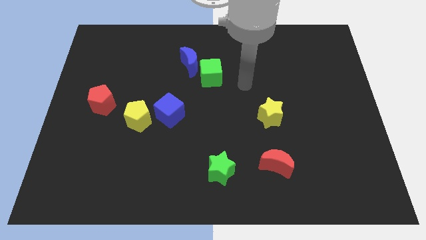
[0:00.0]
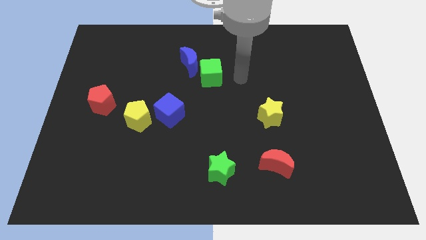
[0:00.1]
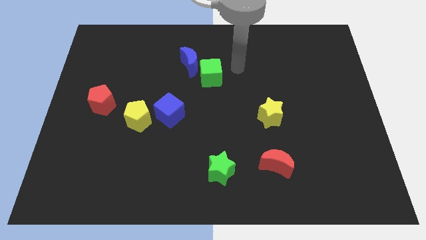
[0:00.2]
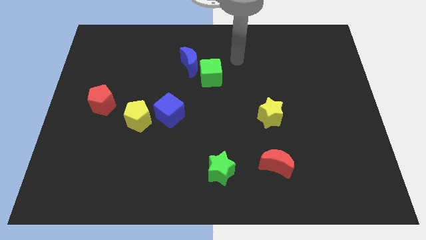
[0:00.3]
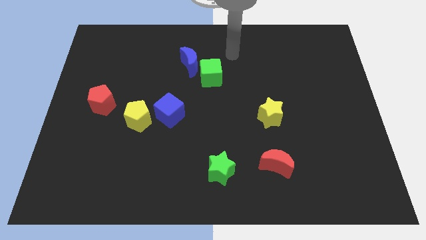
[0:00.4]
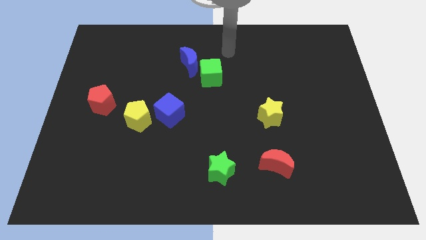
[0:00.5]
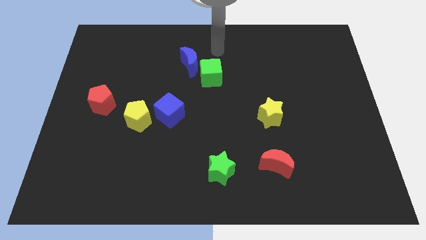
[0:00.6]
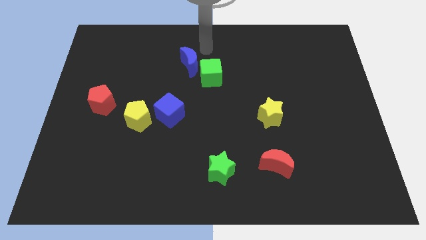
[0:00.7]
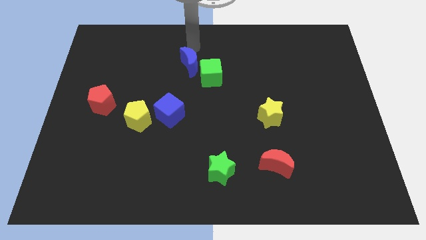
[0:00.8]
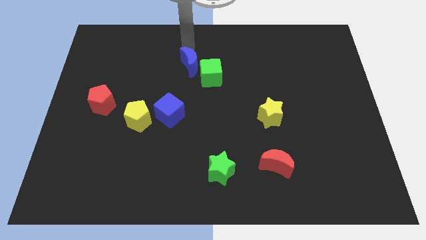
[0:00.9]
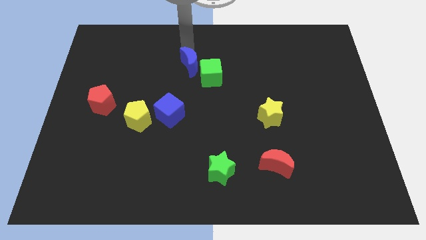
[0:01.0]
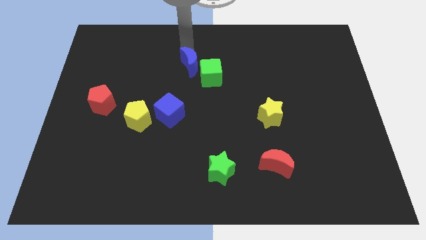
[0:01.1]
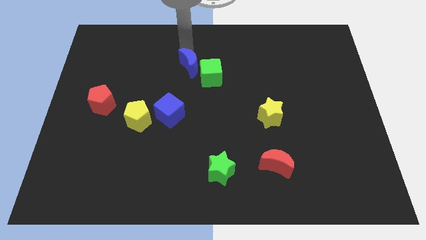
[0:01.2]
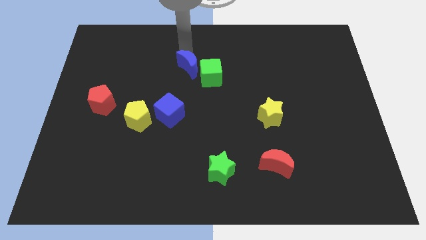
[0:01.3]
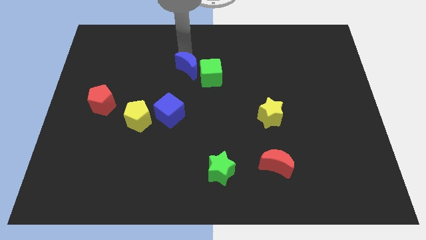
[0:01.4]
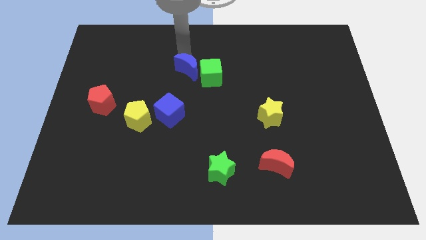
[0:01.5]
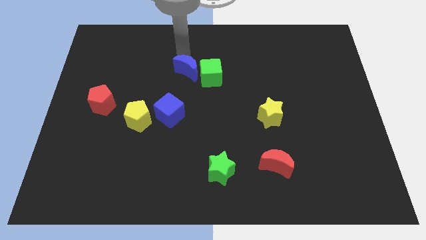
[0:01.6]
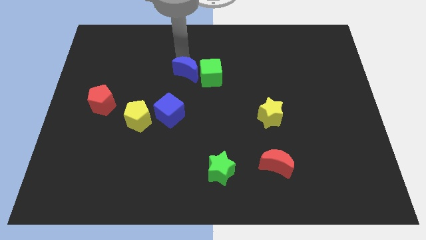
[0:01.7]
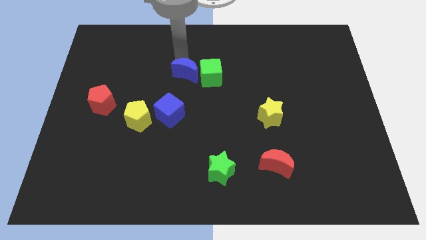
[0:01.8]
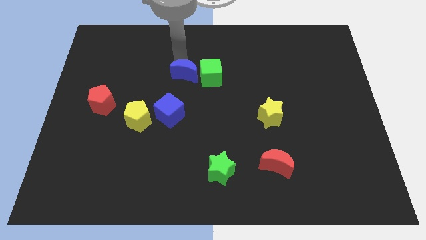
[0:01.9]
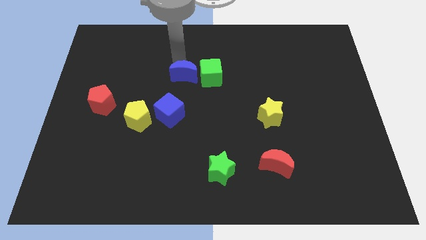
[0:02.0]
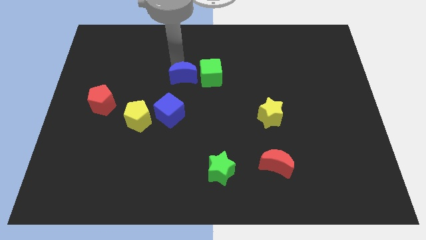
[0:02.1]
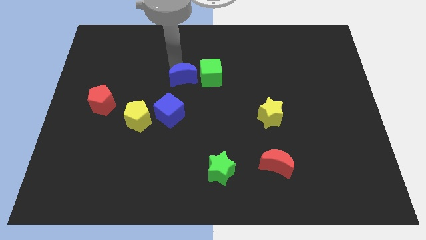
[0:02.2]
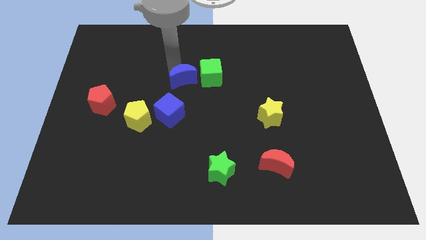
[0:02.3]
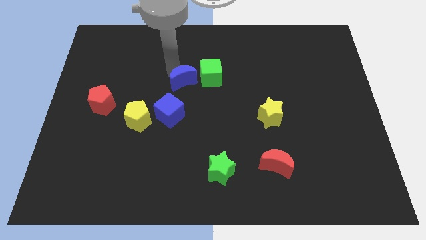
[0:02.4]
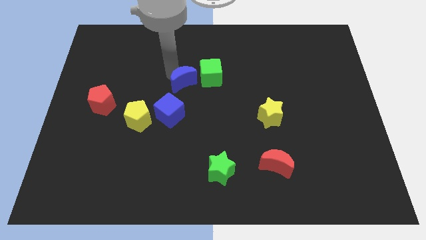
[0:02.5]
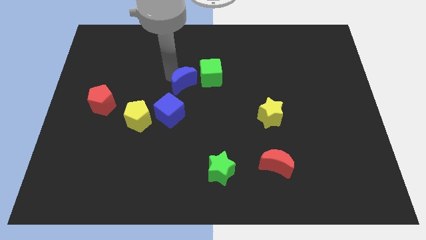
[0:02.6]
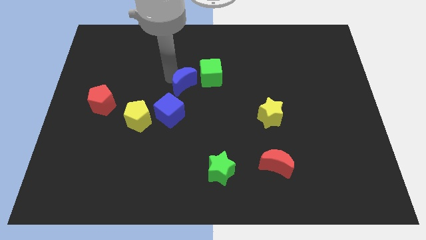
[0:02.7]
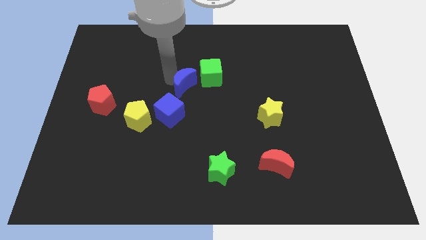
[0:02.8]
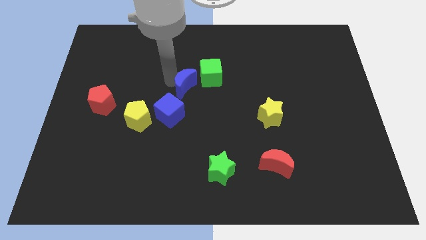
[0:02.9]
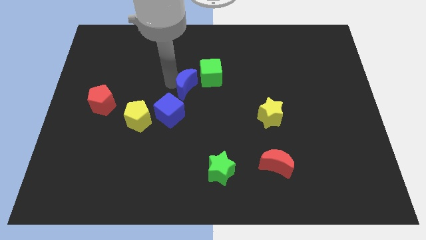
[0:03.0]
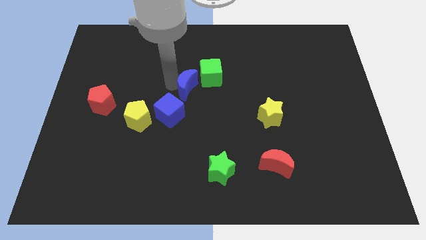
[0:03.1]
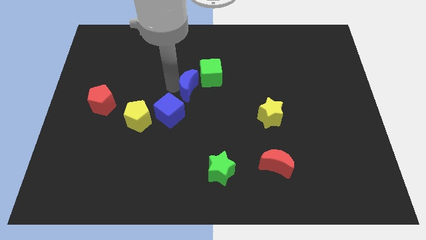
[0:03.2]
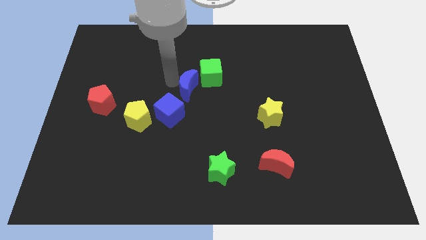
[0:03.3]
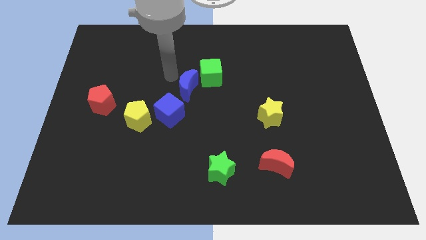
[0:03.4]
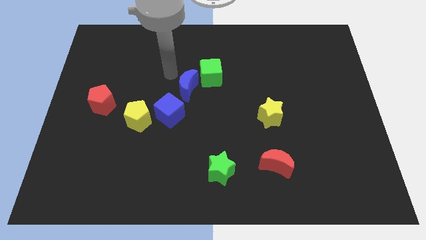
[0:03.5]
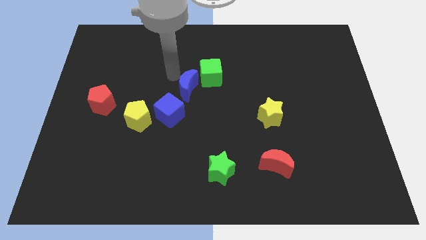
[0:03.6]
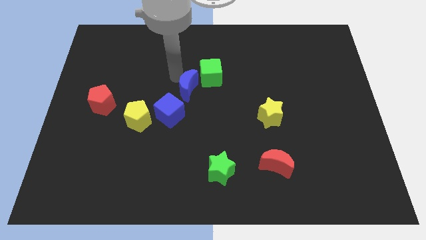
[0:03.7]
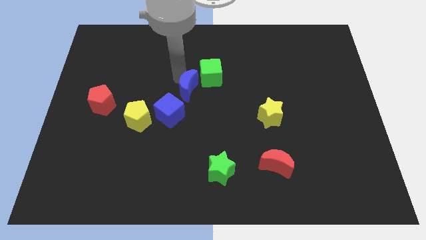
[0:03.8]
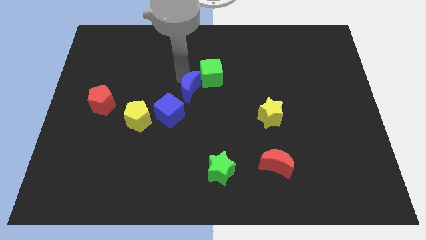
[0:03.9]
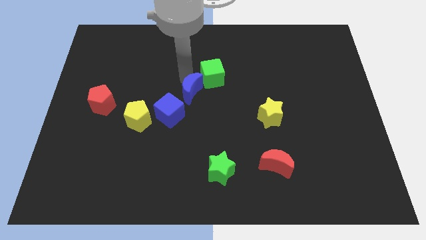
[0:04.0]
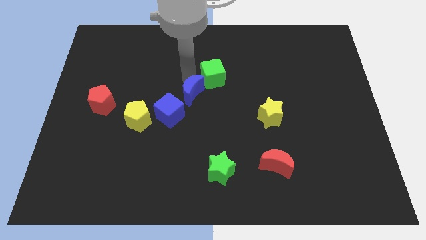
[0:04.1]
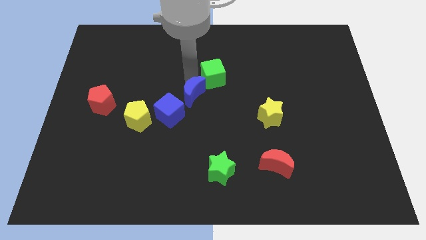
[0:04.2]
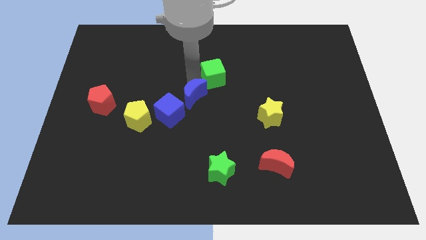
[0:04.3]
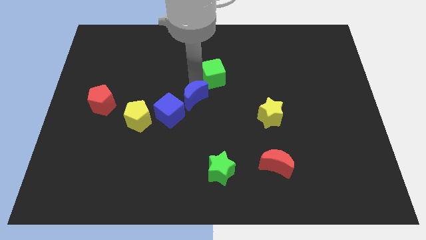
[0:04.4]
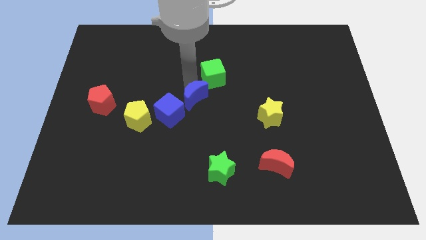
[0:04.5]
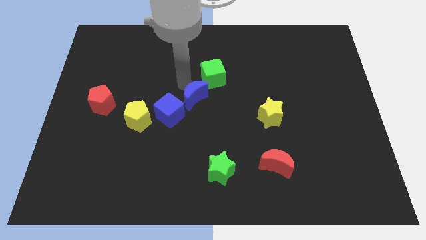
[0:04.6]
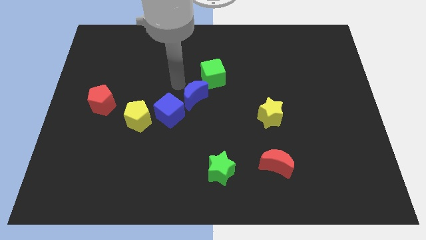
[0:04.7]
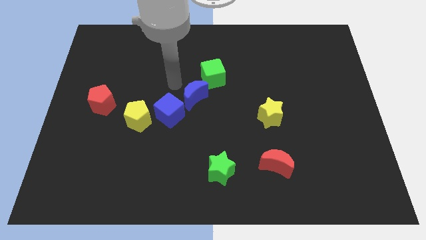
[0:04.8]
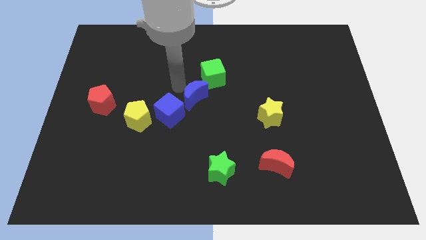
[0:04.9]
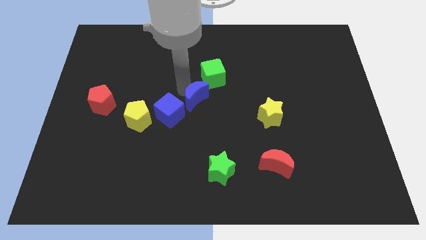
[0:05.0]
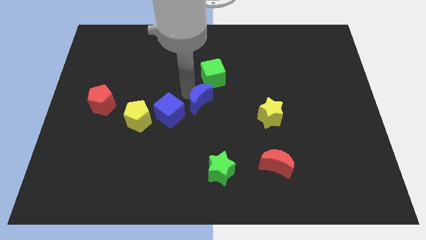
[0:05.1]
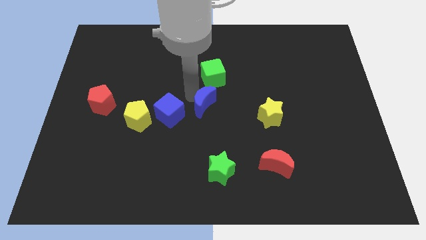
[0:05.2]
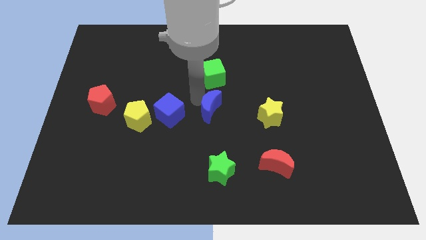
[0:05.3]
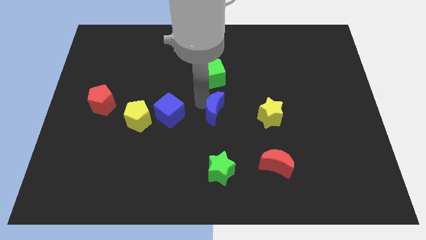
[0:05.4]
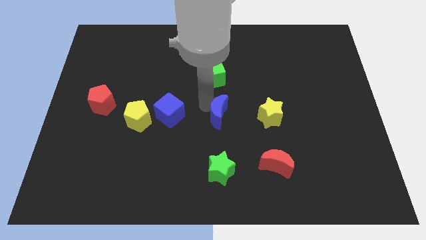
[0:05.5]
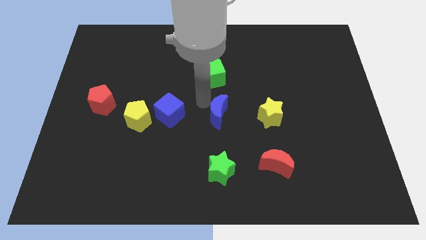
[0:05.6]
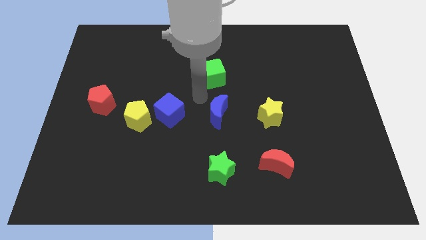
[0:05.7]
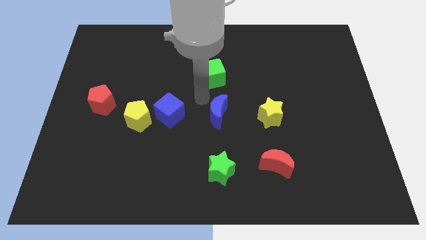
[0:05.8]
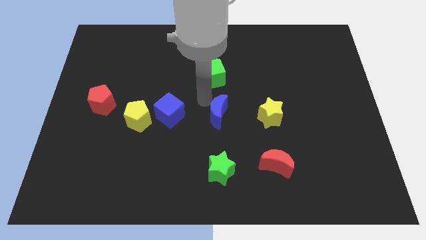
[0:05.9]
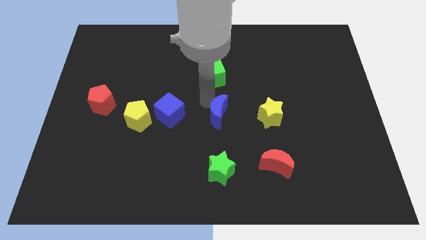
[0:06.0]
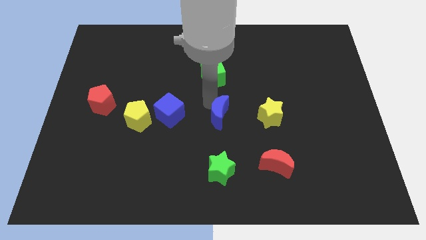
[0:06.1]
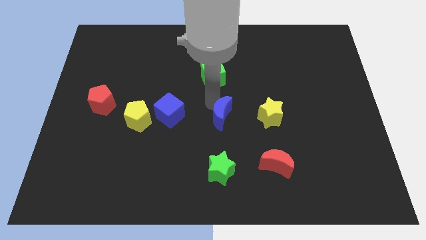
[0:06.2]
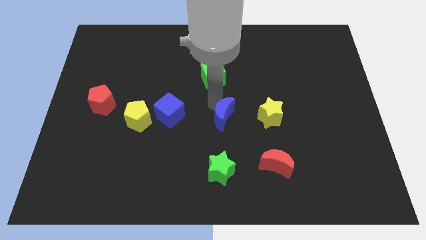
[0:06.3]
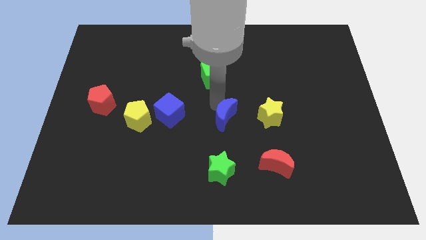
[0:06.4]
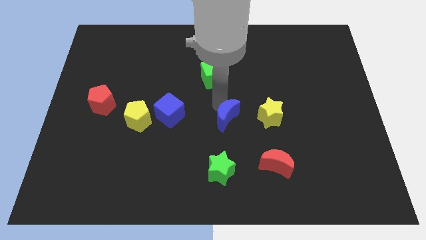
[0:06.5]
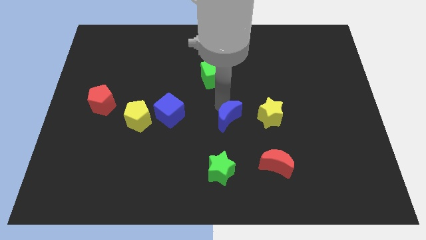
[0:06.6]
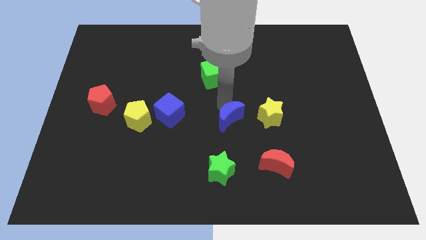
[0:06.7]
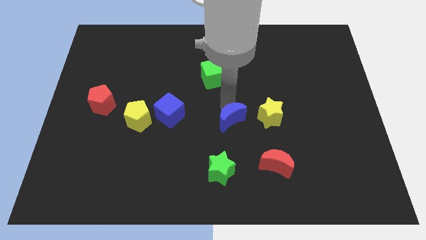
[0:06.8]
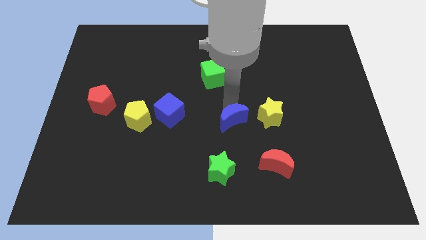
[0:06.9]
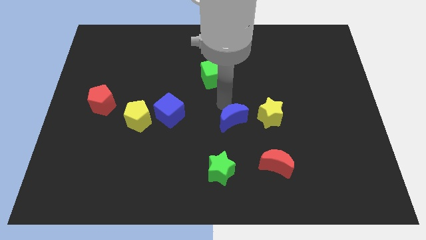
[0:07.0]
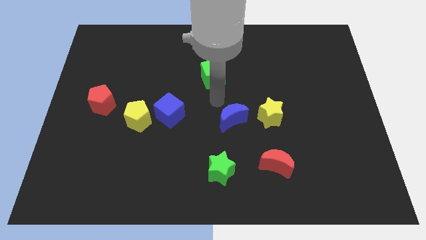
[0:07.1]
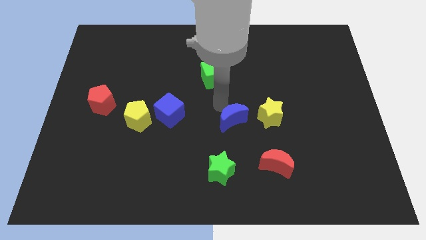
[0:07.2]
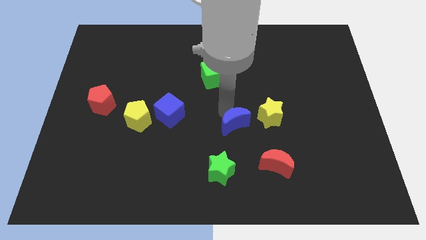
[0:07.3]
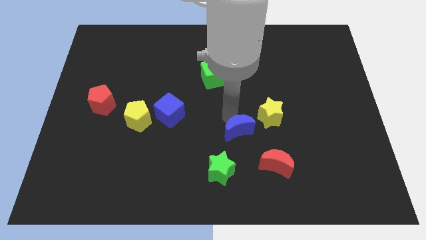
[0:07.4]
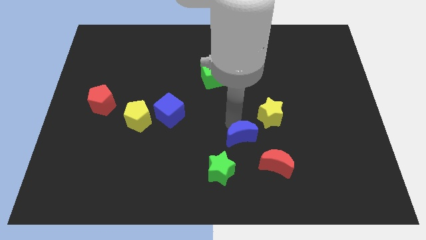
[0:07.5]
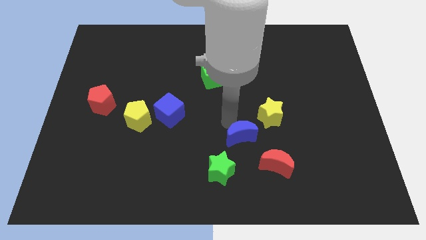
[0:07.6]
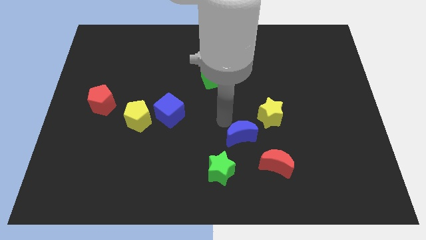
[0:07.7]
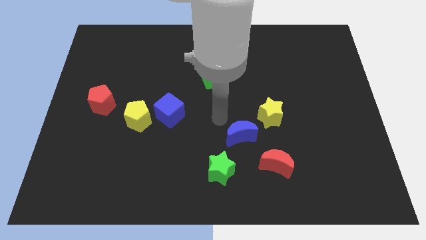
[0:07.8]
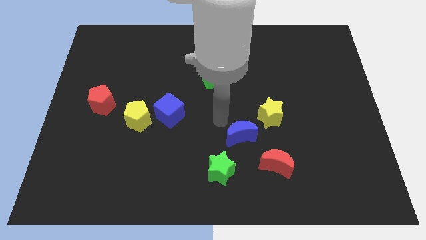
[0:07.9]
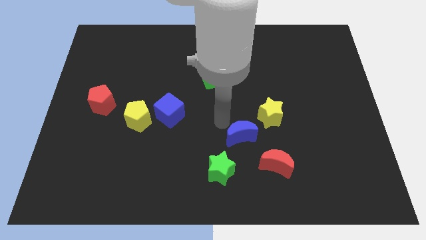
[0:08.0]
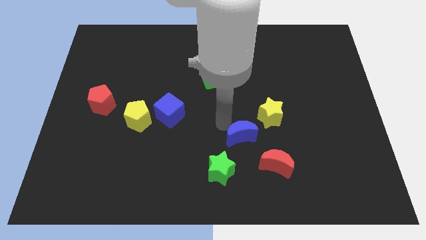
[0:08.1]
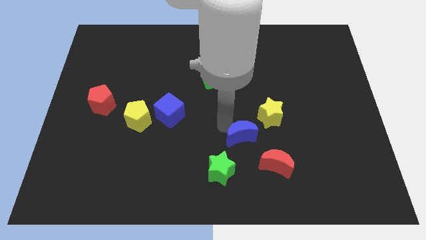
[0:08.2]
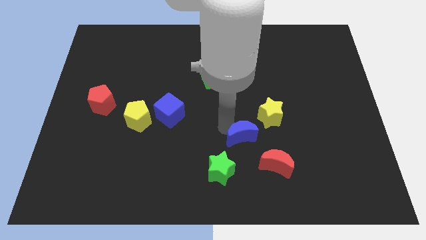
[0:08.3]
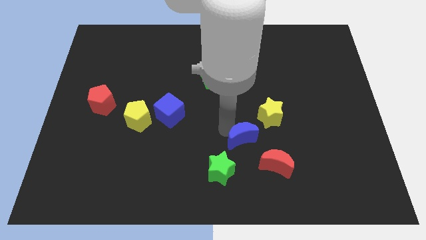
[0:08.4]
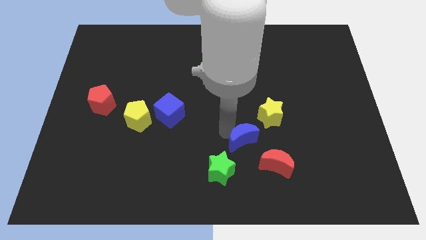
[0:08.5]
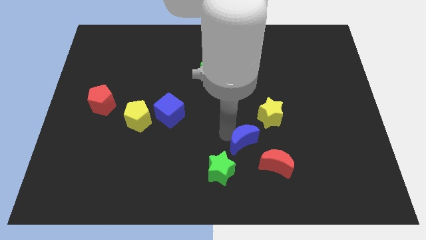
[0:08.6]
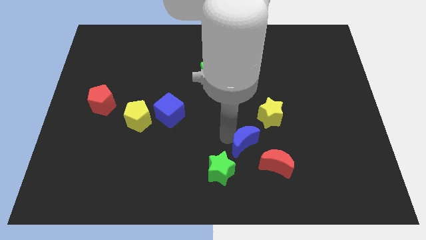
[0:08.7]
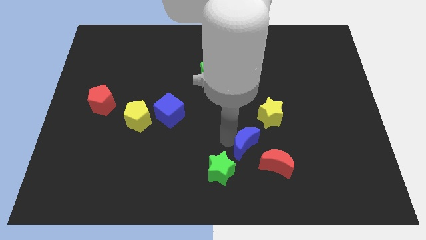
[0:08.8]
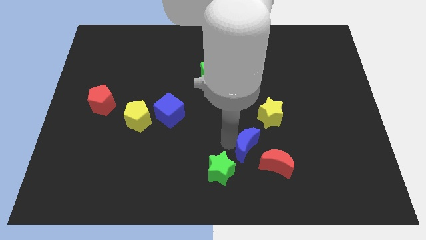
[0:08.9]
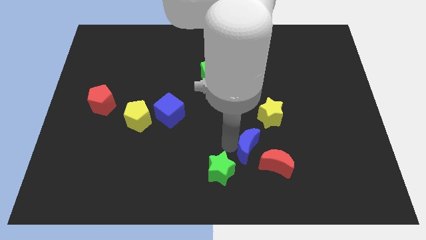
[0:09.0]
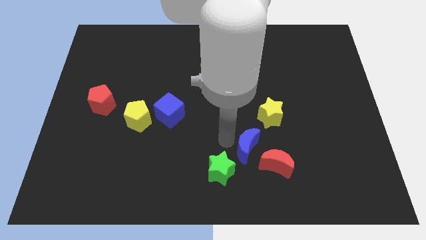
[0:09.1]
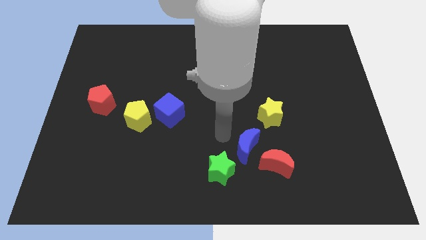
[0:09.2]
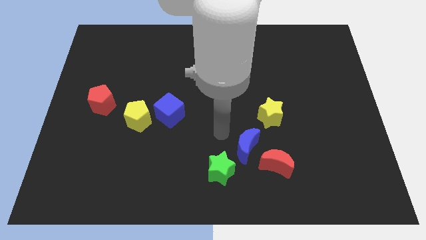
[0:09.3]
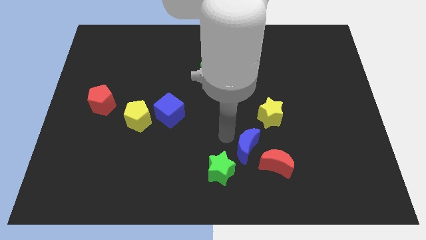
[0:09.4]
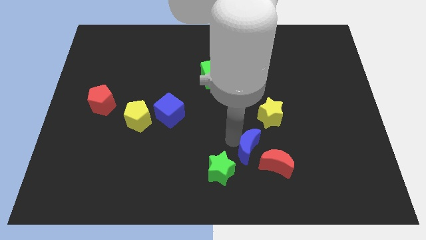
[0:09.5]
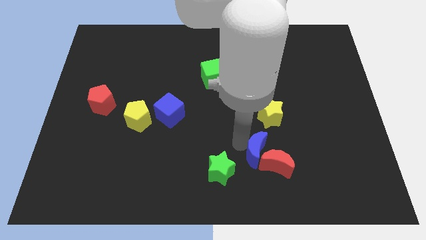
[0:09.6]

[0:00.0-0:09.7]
put the blue moon towards the red moon
